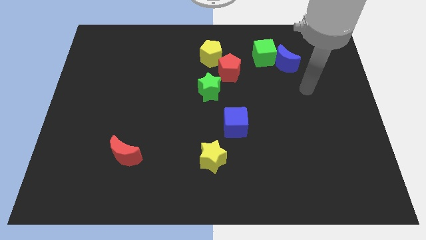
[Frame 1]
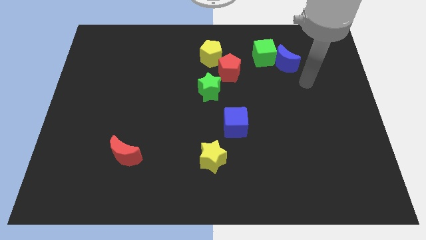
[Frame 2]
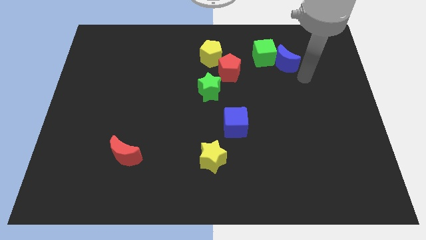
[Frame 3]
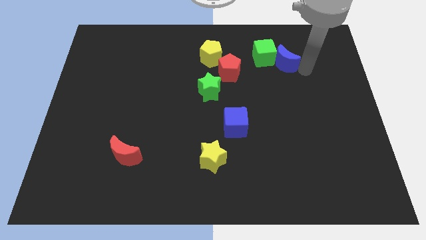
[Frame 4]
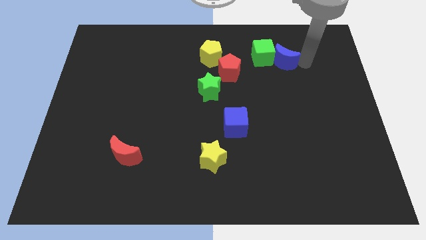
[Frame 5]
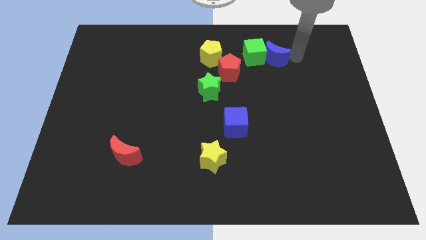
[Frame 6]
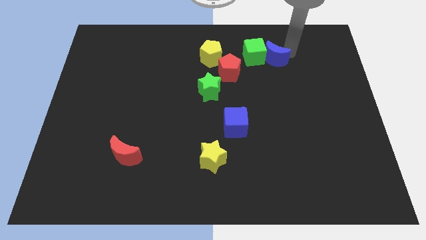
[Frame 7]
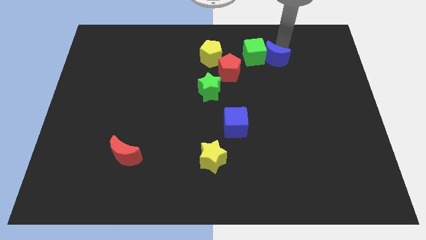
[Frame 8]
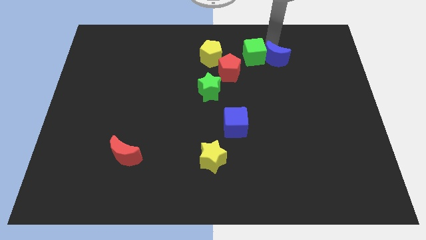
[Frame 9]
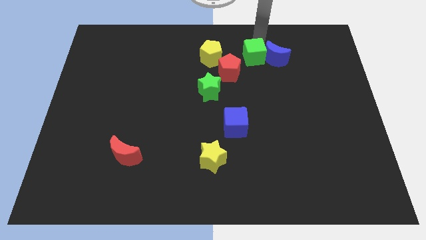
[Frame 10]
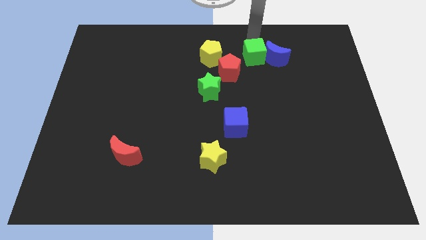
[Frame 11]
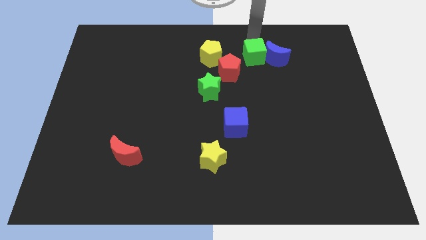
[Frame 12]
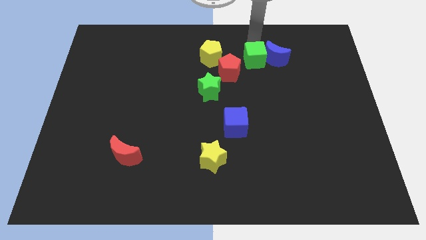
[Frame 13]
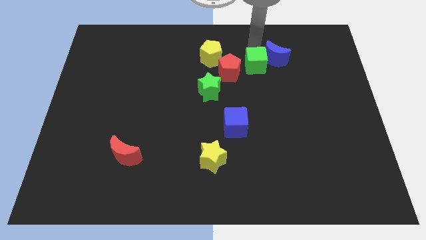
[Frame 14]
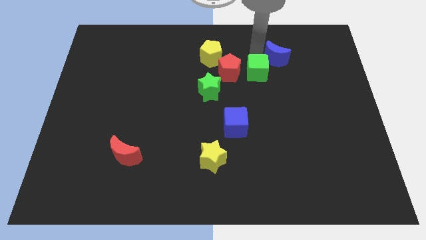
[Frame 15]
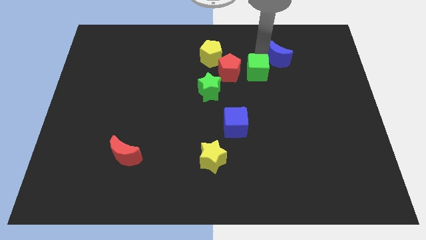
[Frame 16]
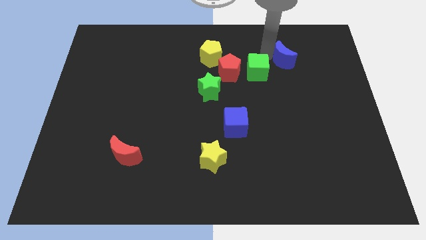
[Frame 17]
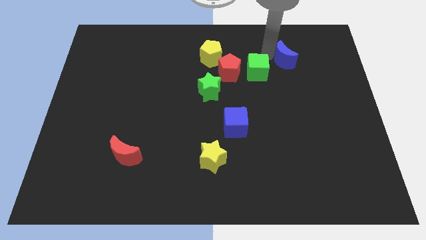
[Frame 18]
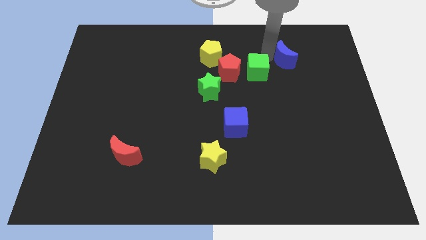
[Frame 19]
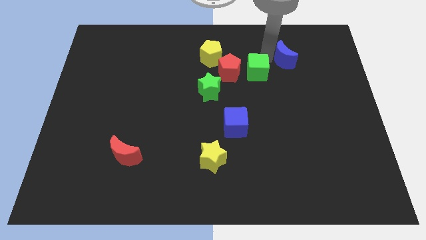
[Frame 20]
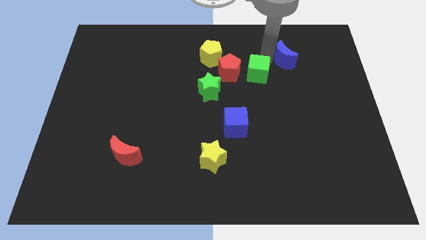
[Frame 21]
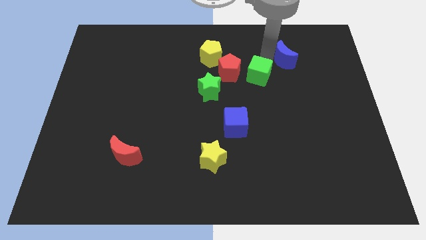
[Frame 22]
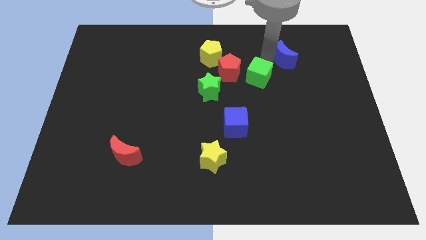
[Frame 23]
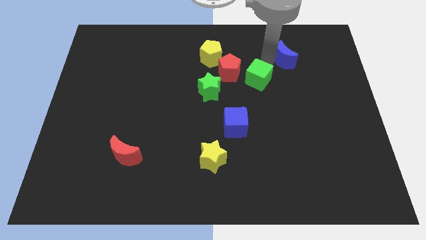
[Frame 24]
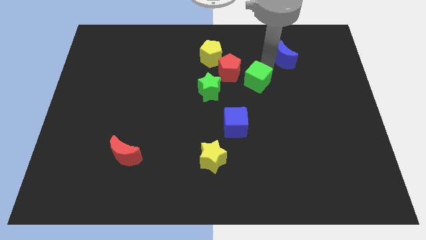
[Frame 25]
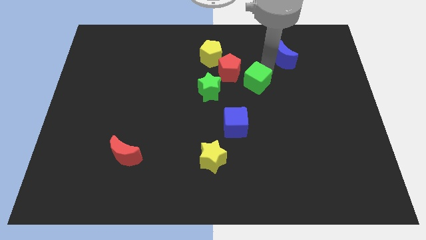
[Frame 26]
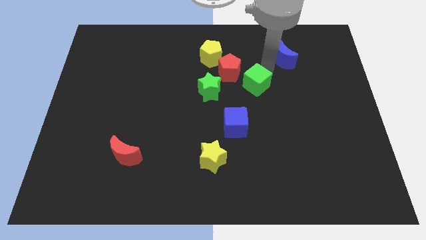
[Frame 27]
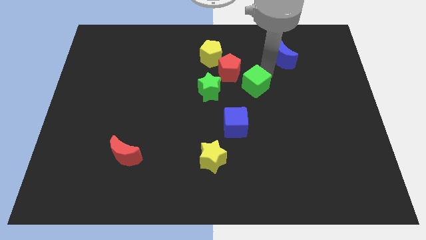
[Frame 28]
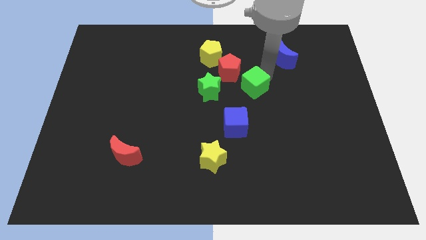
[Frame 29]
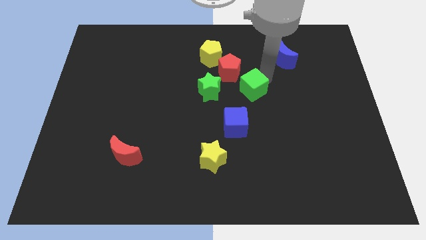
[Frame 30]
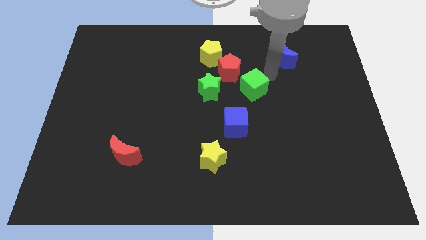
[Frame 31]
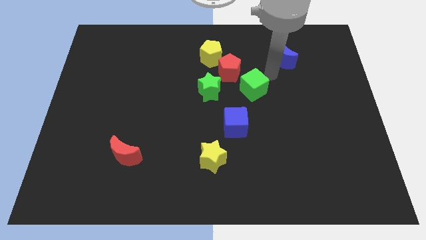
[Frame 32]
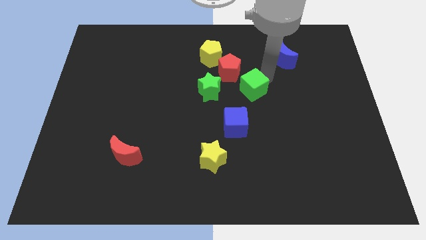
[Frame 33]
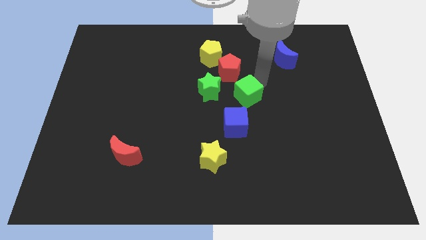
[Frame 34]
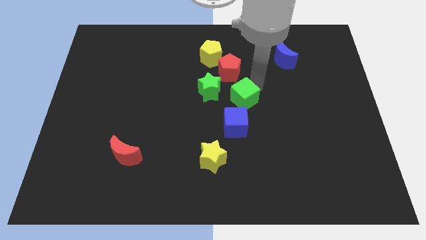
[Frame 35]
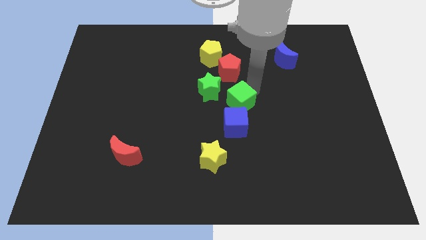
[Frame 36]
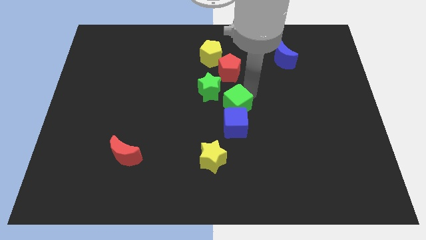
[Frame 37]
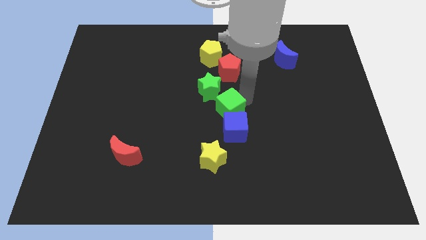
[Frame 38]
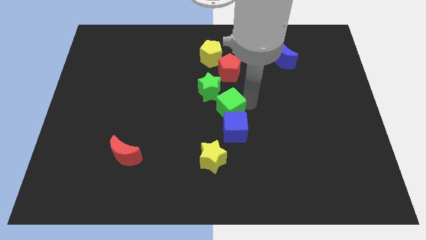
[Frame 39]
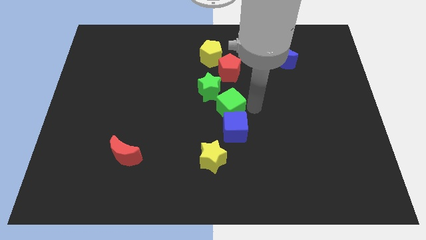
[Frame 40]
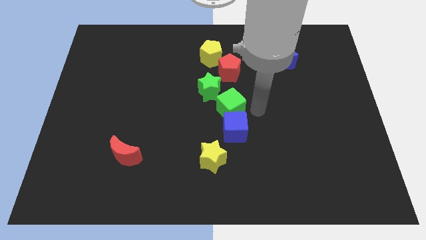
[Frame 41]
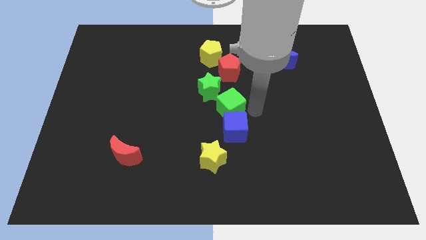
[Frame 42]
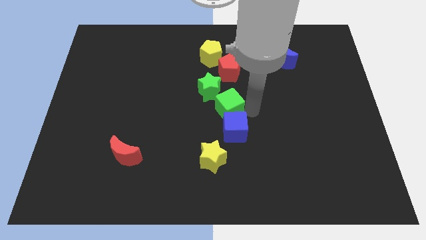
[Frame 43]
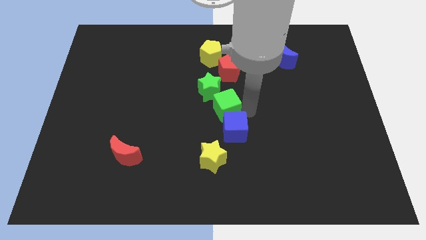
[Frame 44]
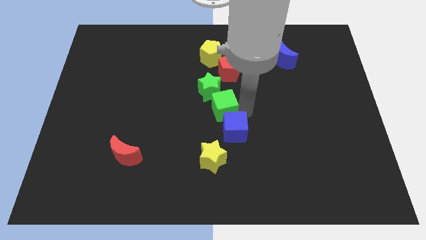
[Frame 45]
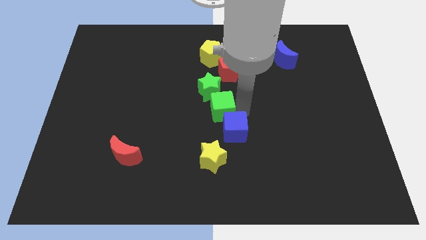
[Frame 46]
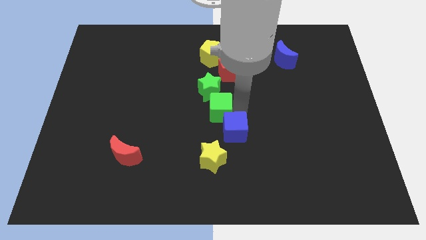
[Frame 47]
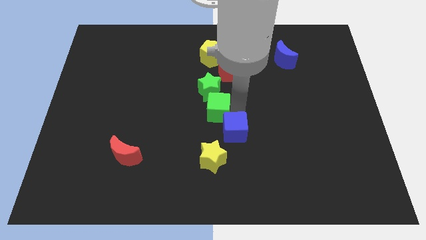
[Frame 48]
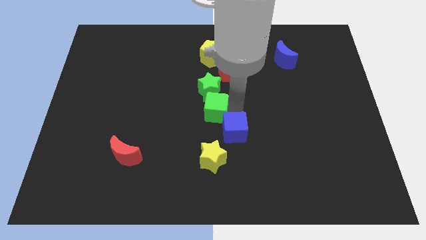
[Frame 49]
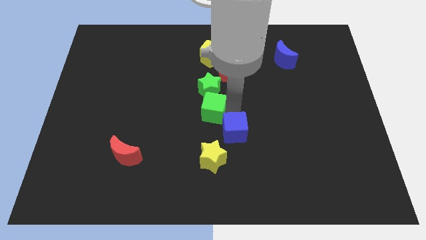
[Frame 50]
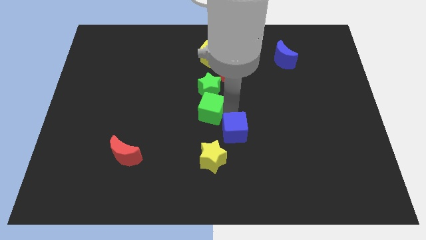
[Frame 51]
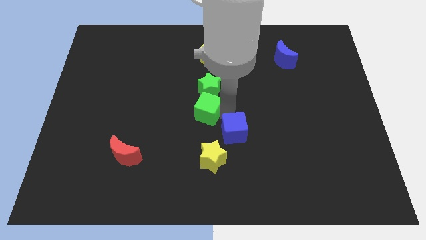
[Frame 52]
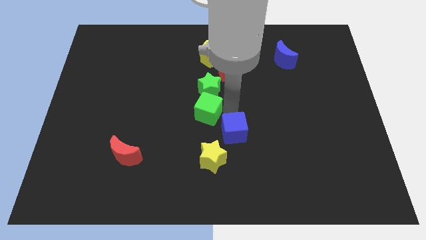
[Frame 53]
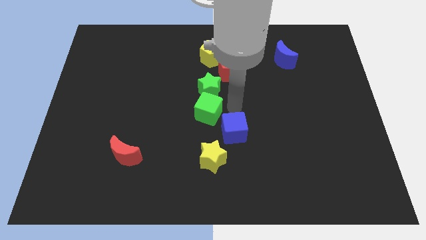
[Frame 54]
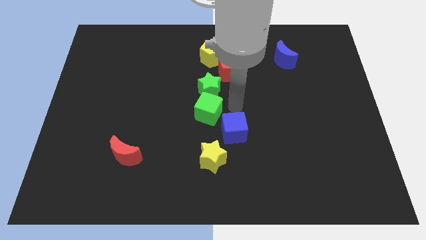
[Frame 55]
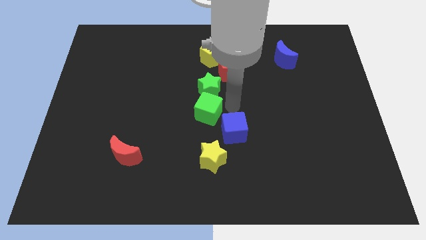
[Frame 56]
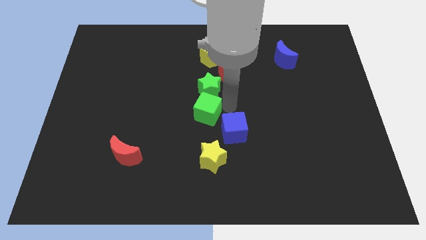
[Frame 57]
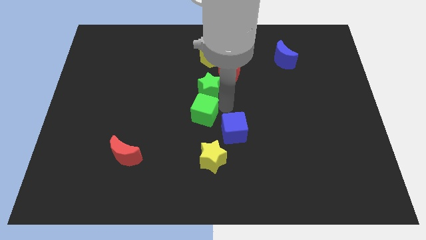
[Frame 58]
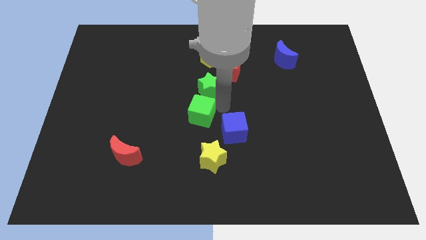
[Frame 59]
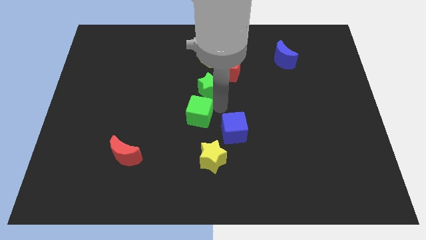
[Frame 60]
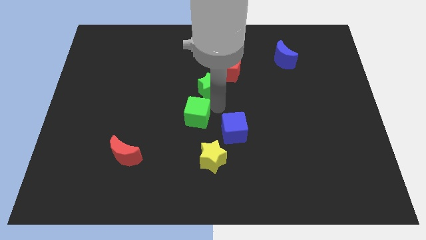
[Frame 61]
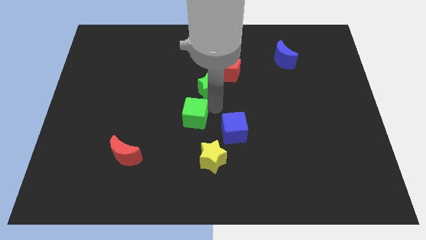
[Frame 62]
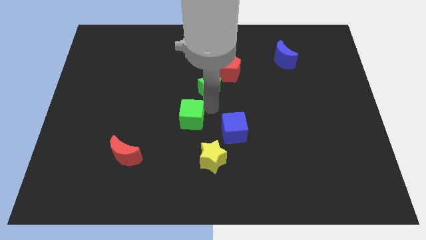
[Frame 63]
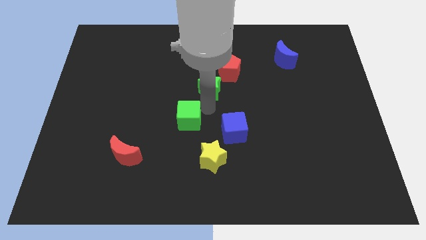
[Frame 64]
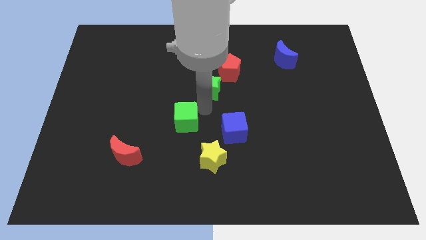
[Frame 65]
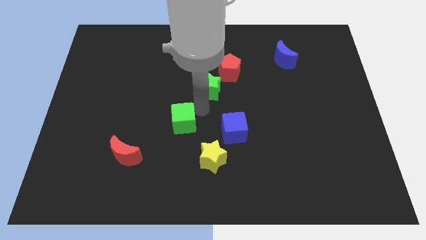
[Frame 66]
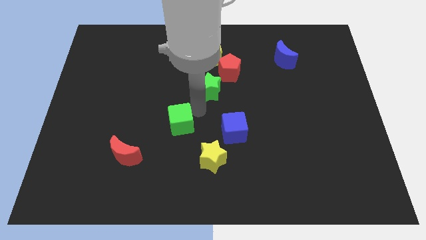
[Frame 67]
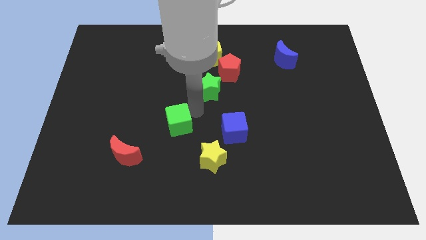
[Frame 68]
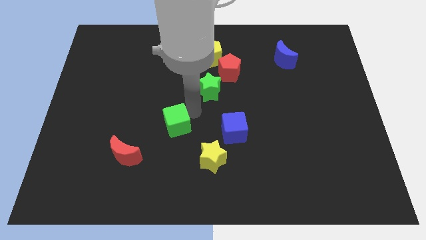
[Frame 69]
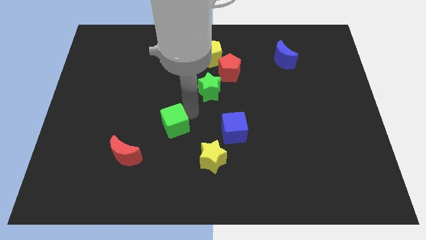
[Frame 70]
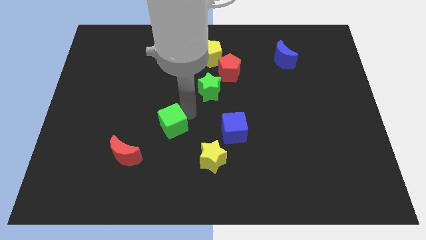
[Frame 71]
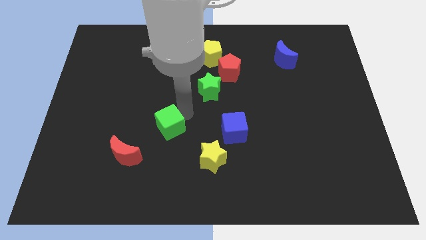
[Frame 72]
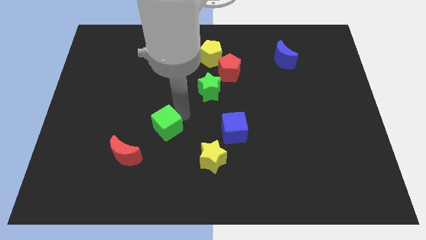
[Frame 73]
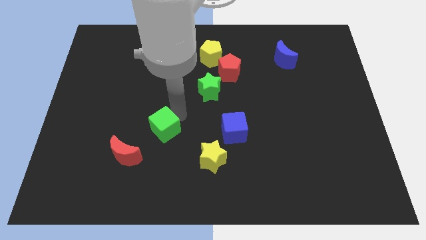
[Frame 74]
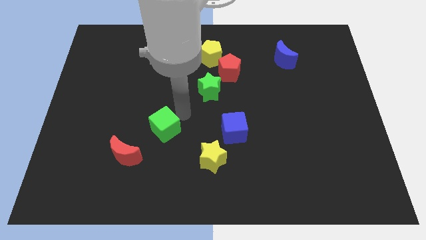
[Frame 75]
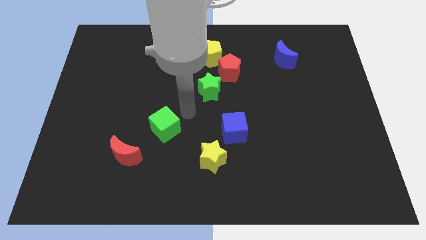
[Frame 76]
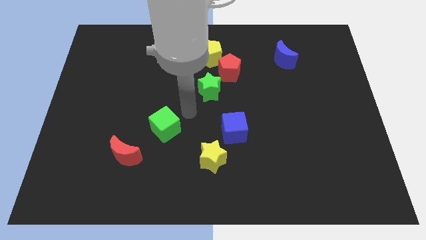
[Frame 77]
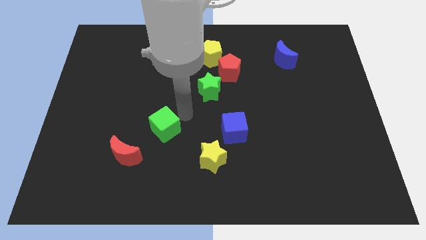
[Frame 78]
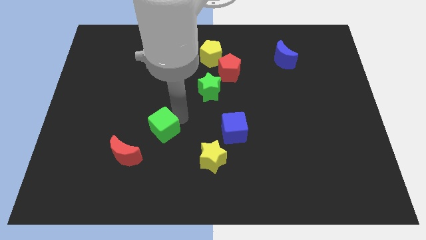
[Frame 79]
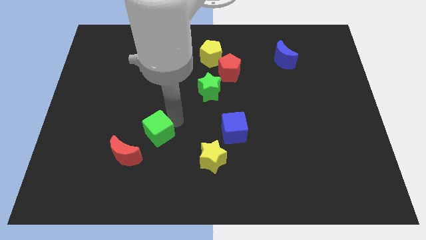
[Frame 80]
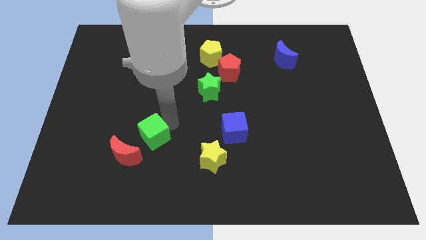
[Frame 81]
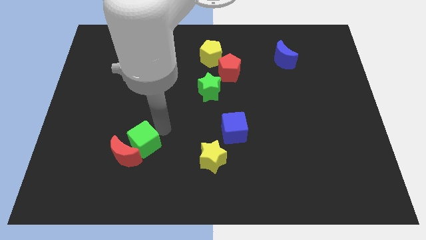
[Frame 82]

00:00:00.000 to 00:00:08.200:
put the green cube to the red moon

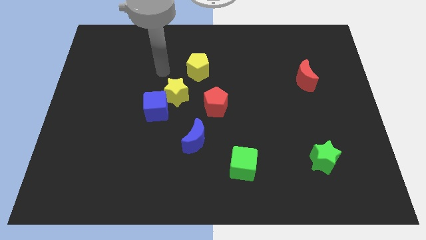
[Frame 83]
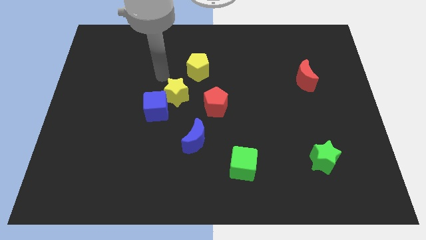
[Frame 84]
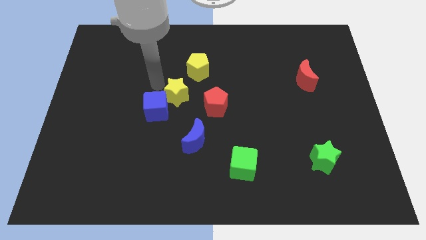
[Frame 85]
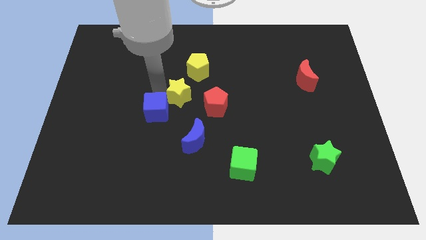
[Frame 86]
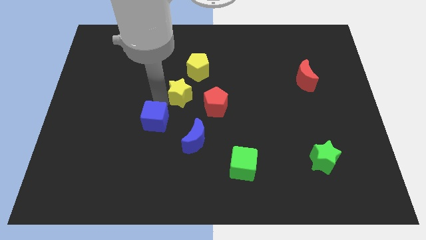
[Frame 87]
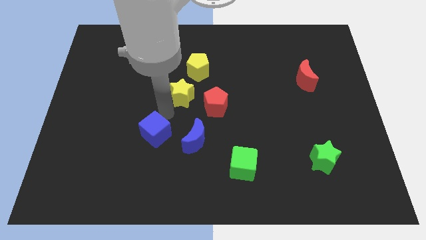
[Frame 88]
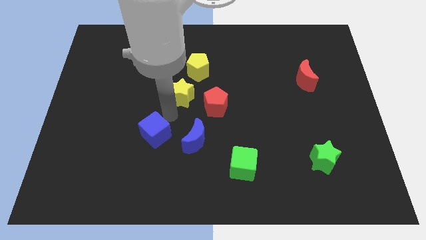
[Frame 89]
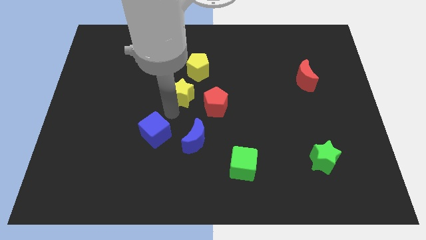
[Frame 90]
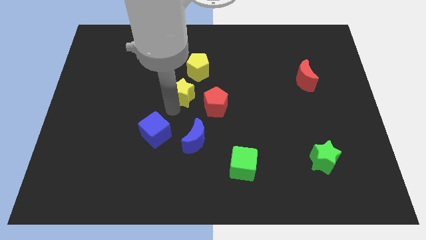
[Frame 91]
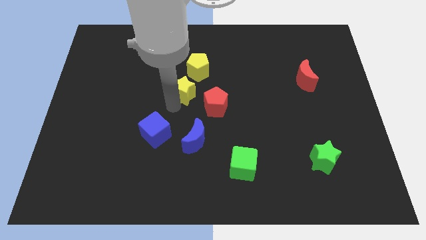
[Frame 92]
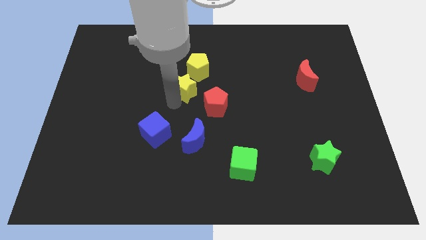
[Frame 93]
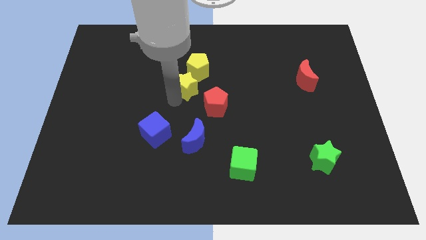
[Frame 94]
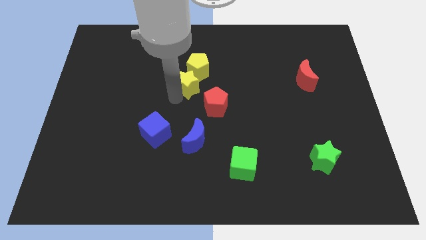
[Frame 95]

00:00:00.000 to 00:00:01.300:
move the yellow star close to the yellow pentagon
